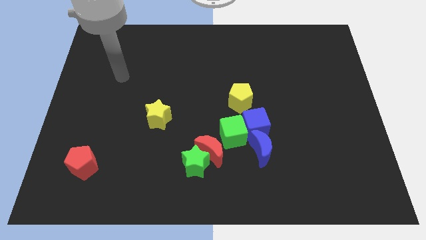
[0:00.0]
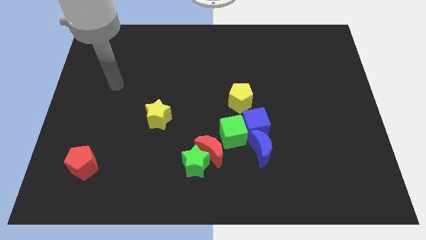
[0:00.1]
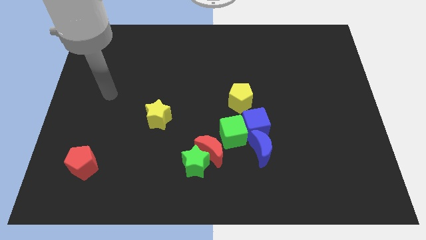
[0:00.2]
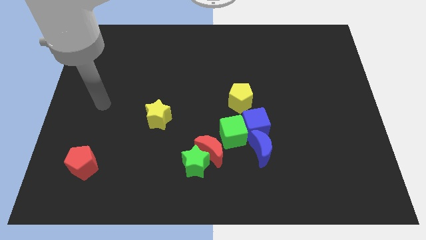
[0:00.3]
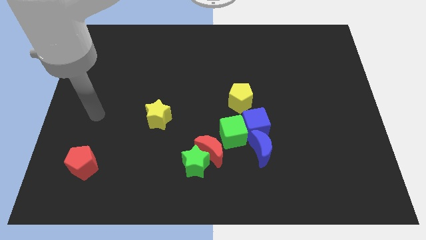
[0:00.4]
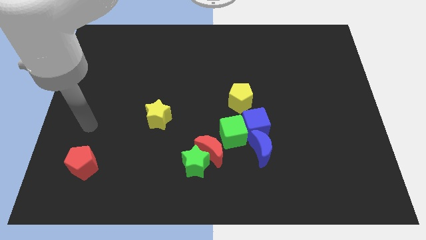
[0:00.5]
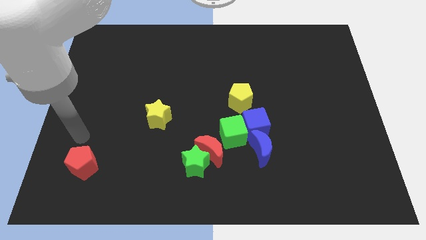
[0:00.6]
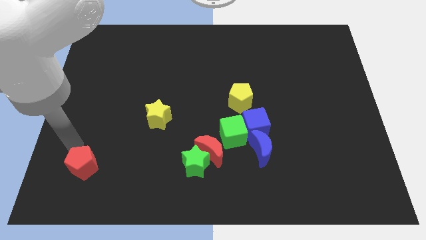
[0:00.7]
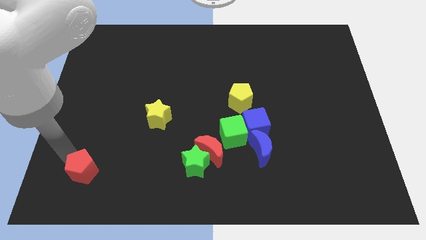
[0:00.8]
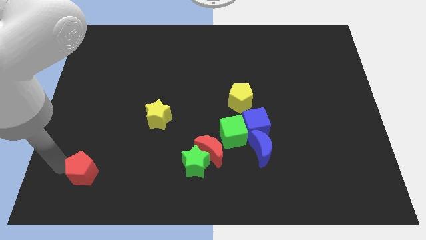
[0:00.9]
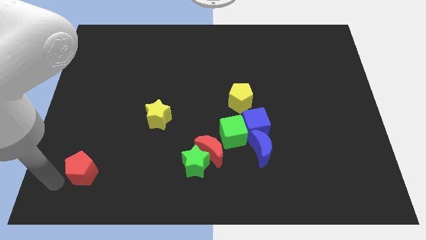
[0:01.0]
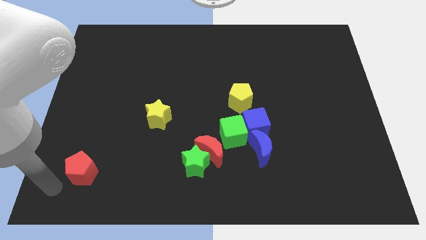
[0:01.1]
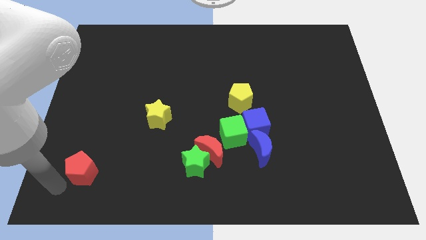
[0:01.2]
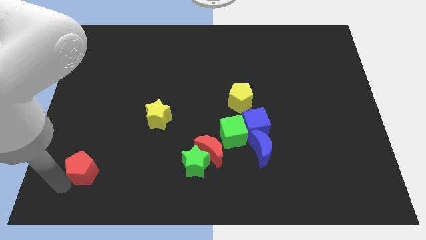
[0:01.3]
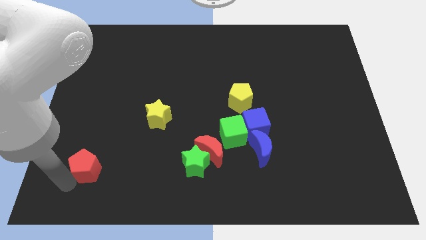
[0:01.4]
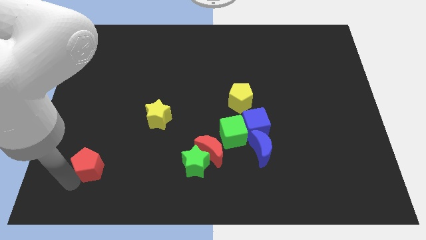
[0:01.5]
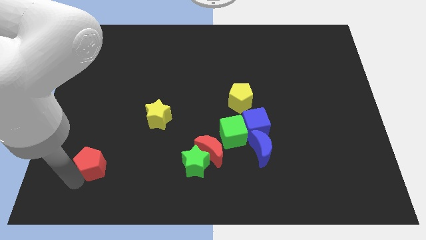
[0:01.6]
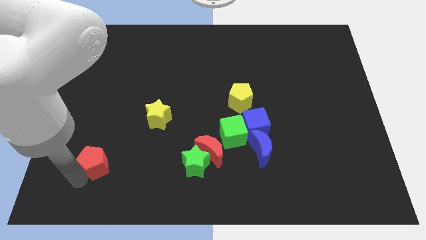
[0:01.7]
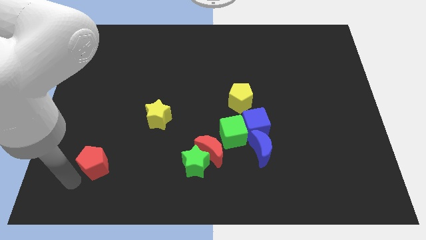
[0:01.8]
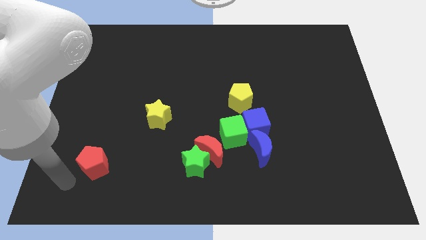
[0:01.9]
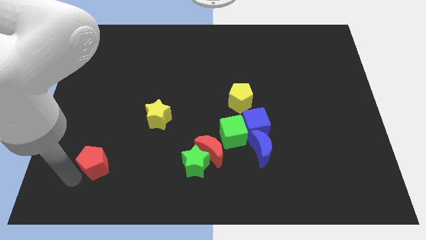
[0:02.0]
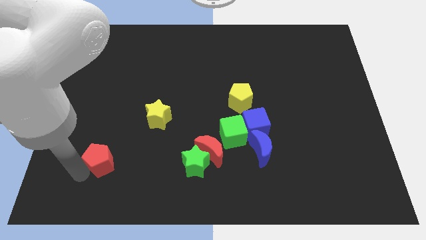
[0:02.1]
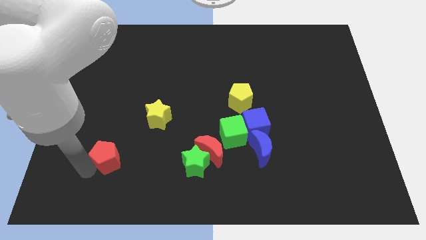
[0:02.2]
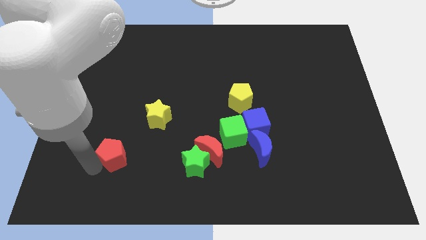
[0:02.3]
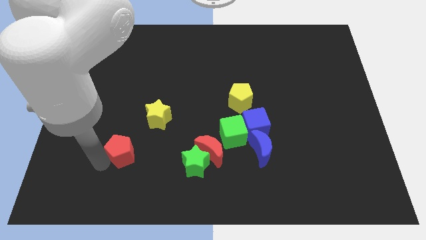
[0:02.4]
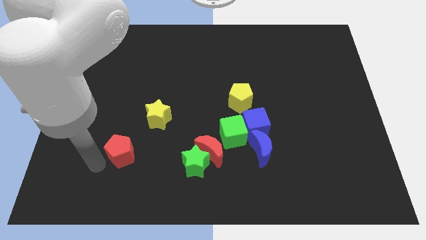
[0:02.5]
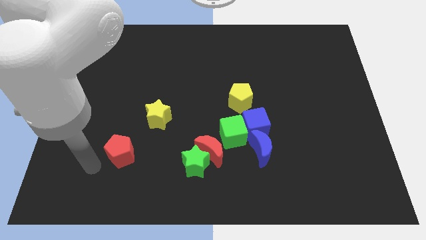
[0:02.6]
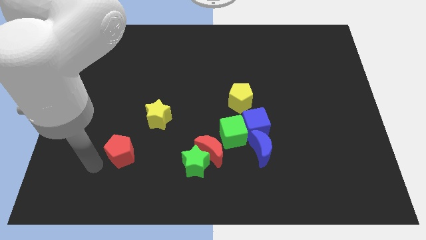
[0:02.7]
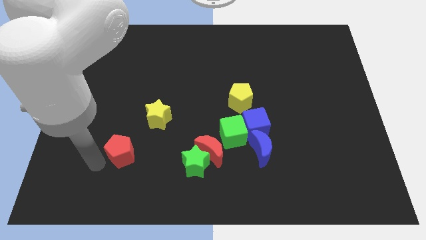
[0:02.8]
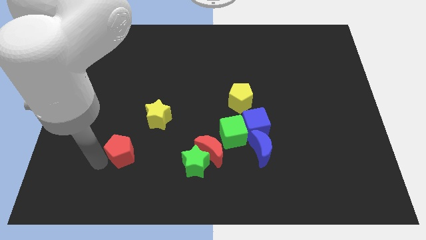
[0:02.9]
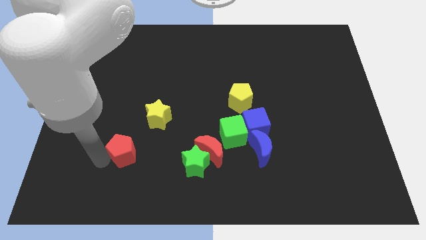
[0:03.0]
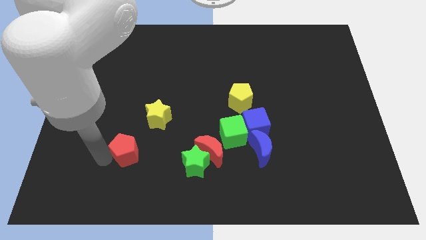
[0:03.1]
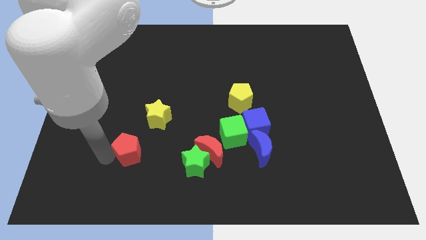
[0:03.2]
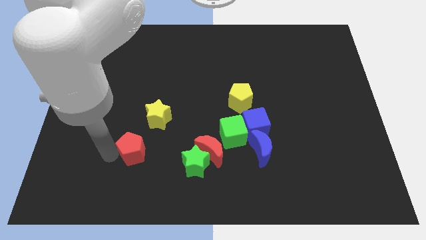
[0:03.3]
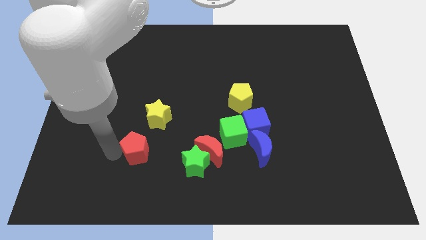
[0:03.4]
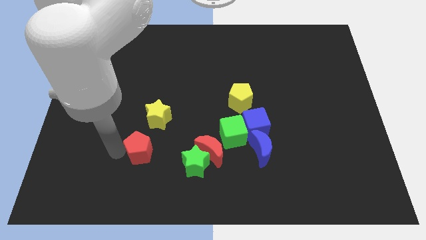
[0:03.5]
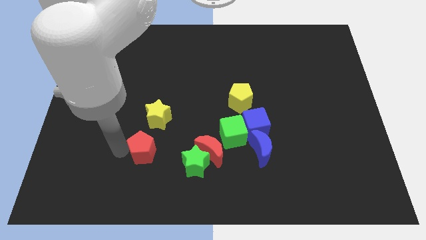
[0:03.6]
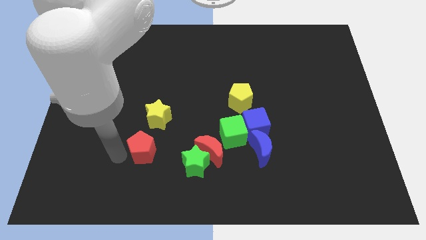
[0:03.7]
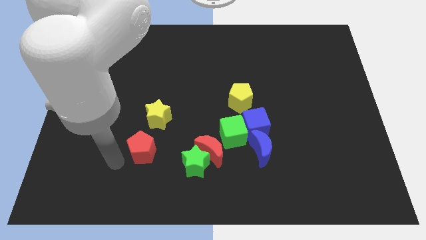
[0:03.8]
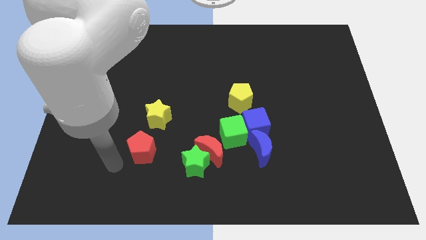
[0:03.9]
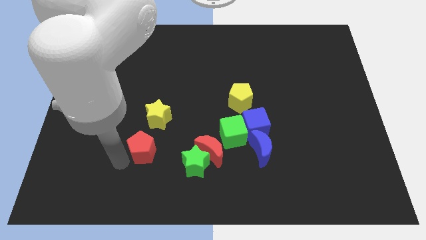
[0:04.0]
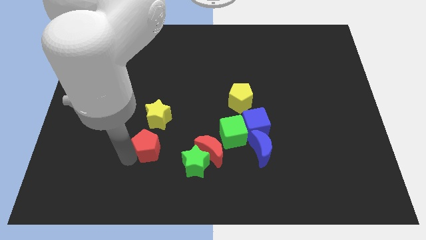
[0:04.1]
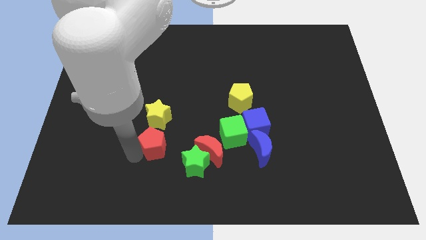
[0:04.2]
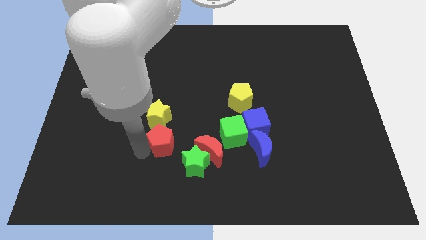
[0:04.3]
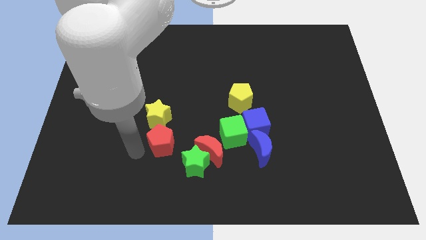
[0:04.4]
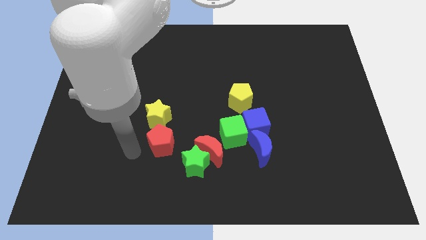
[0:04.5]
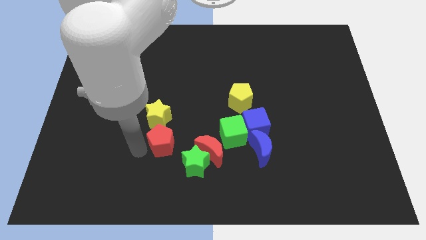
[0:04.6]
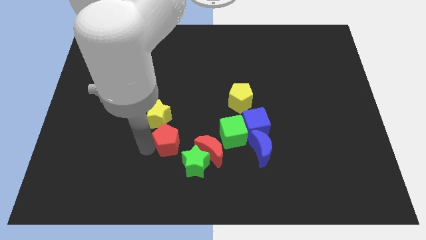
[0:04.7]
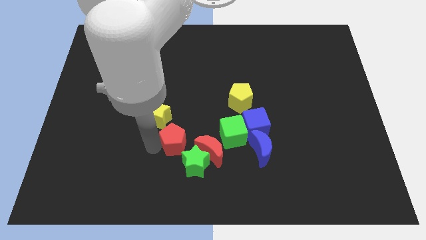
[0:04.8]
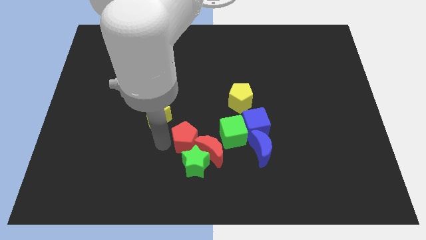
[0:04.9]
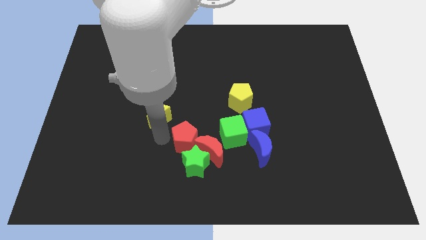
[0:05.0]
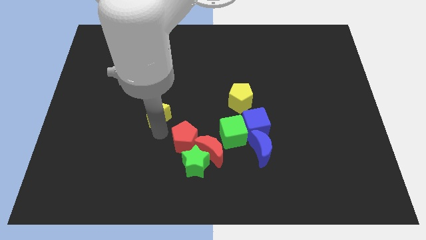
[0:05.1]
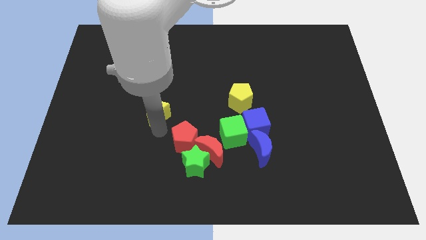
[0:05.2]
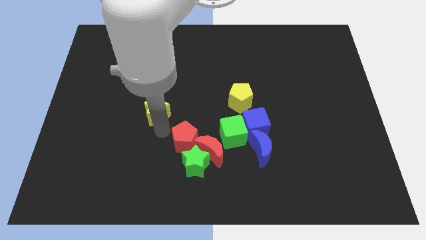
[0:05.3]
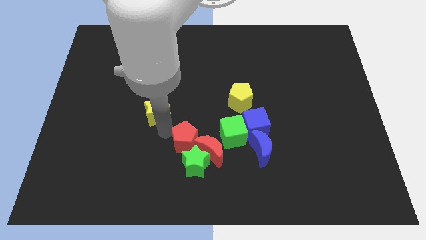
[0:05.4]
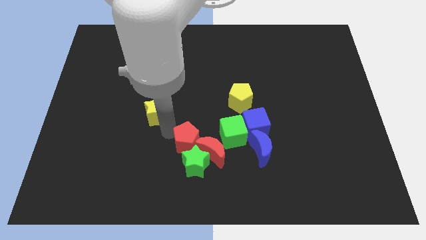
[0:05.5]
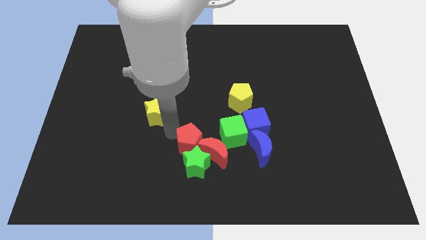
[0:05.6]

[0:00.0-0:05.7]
push the red pentagon to the red moon

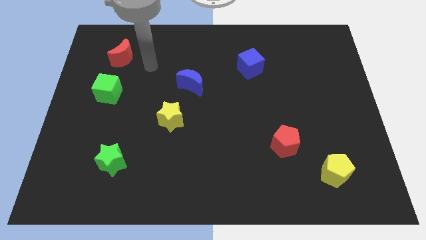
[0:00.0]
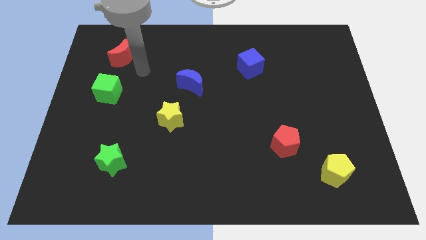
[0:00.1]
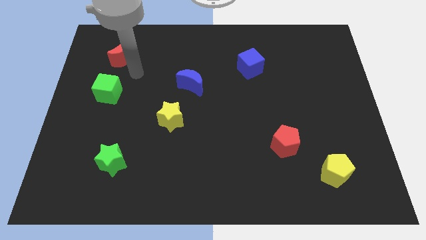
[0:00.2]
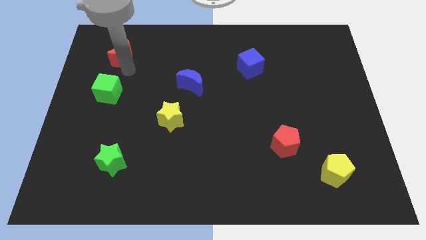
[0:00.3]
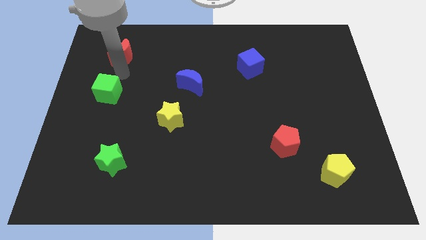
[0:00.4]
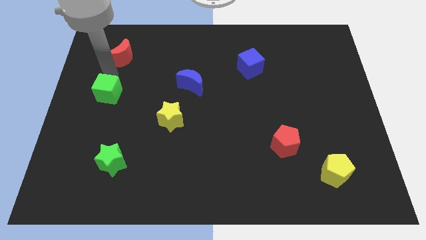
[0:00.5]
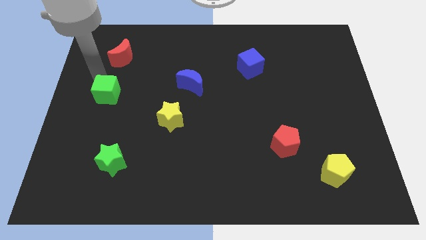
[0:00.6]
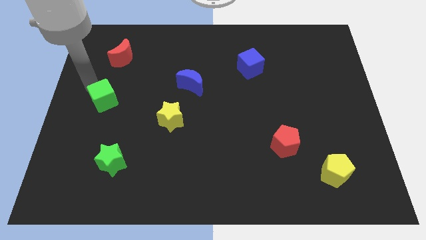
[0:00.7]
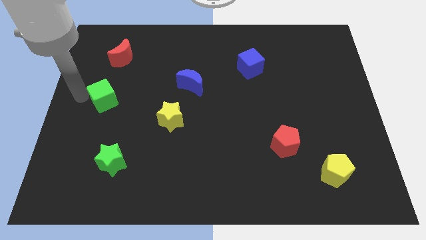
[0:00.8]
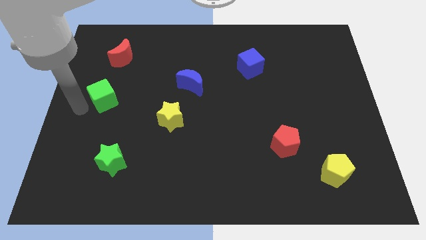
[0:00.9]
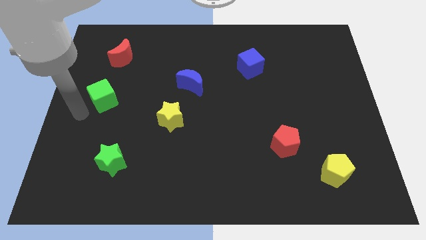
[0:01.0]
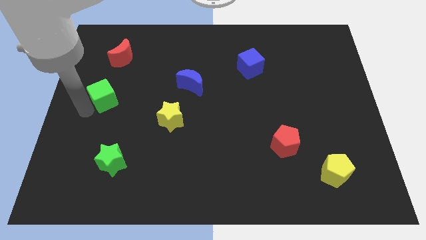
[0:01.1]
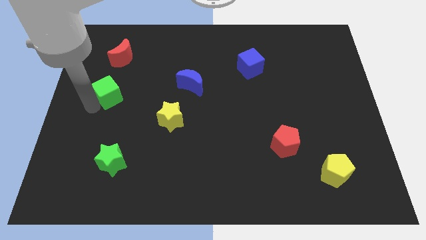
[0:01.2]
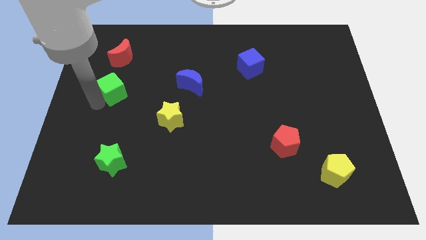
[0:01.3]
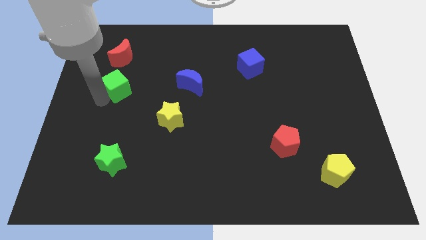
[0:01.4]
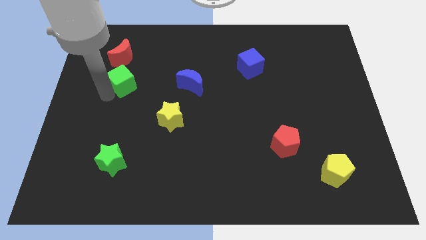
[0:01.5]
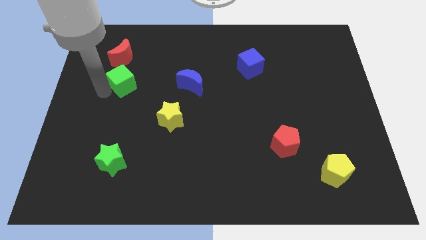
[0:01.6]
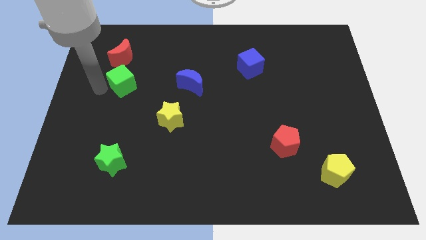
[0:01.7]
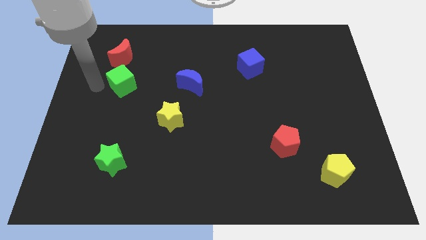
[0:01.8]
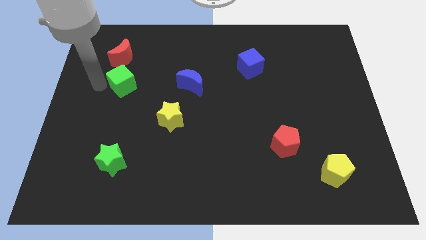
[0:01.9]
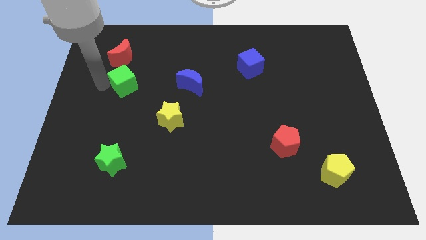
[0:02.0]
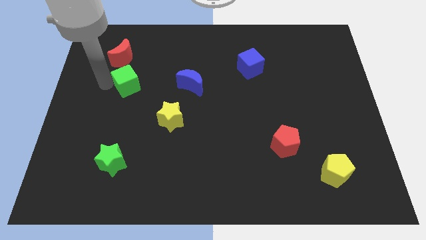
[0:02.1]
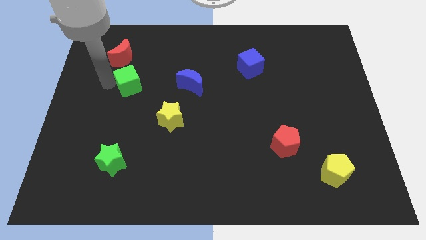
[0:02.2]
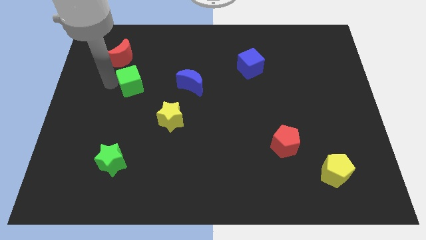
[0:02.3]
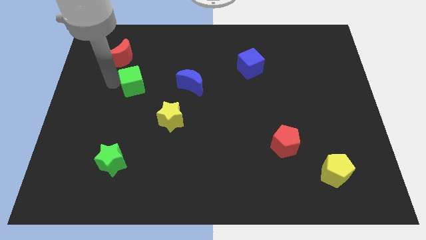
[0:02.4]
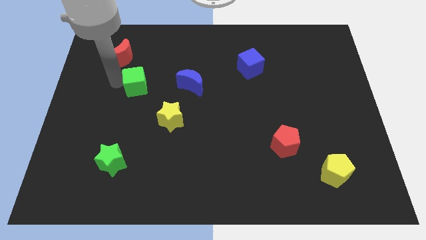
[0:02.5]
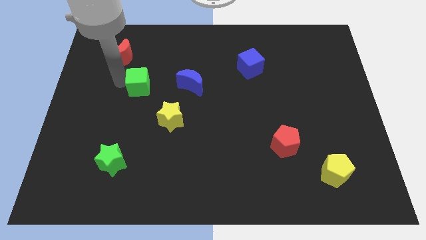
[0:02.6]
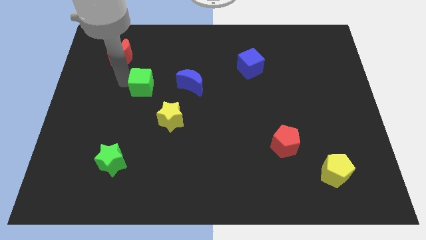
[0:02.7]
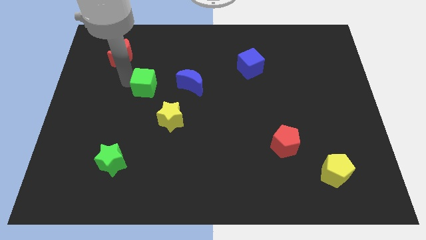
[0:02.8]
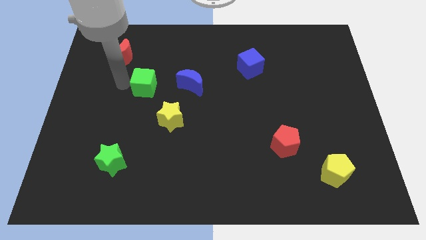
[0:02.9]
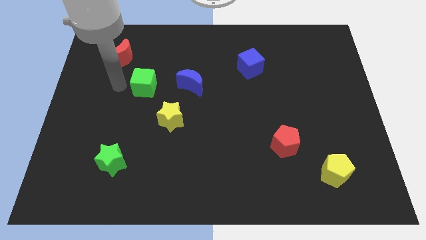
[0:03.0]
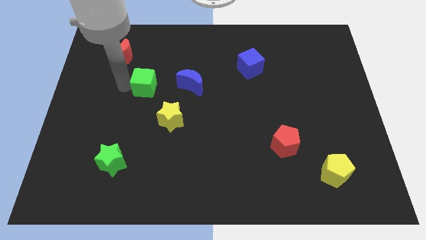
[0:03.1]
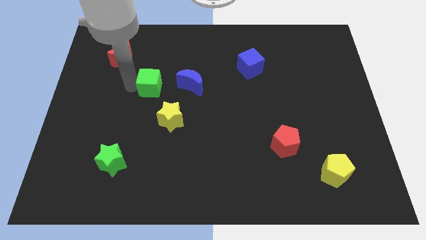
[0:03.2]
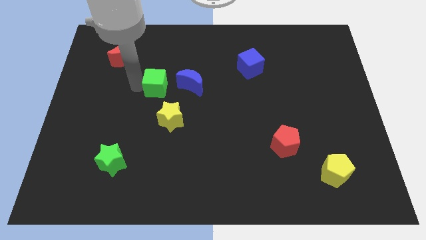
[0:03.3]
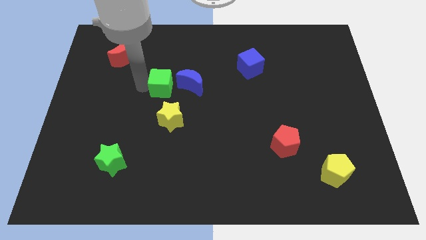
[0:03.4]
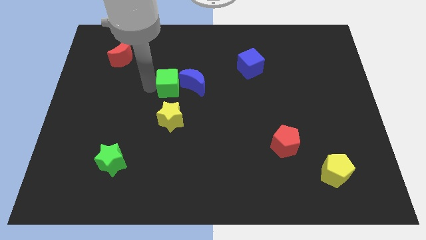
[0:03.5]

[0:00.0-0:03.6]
put the green cube close to the blue moon
